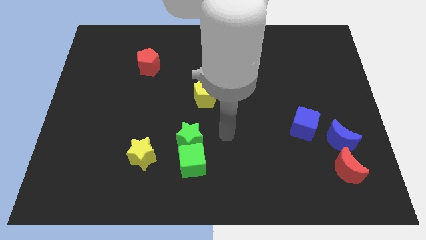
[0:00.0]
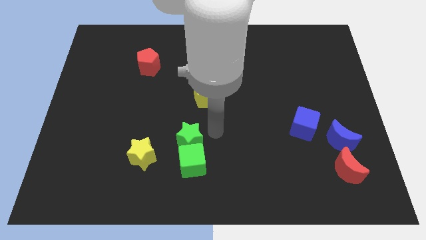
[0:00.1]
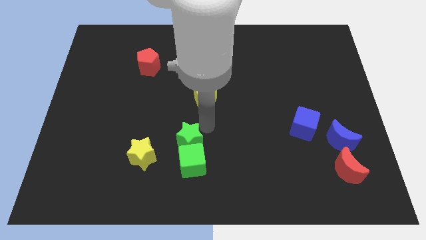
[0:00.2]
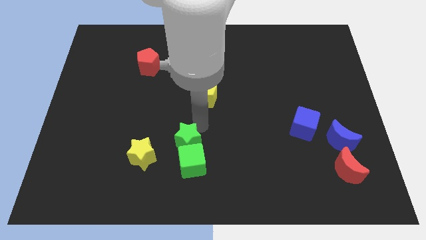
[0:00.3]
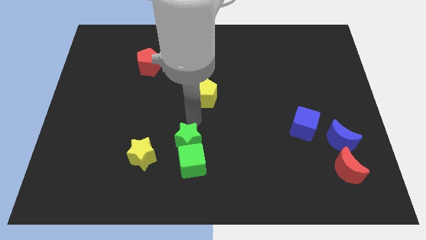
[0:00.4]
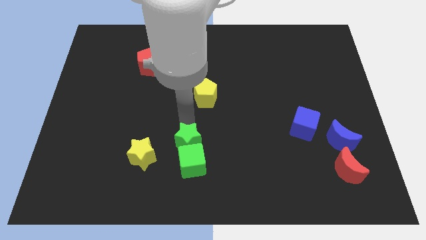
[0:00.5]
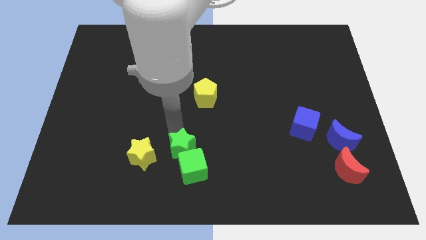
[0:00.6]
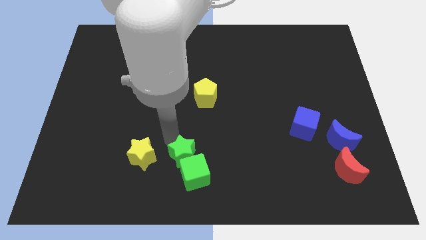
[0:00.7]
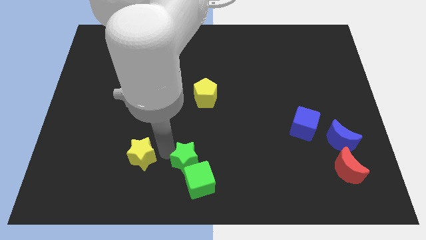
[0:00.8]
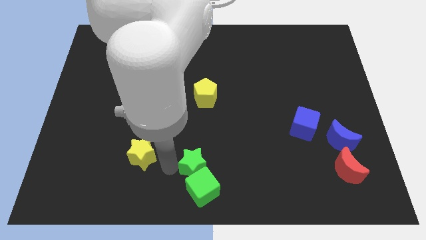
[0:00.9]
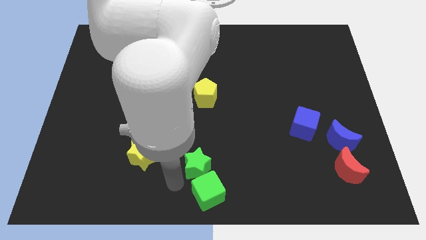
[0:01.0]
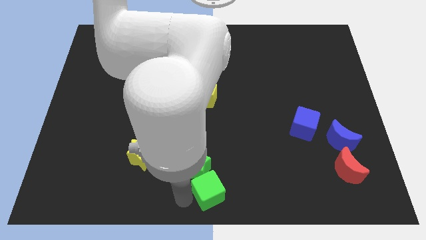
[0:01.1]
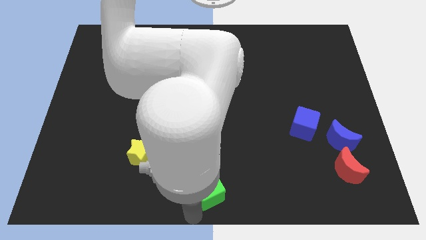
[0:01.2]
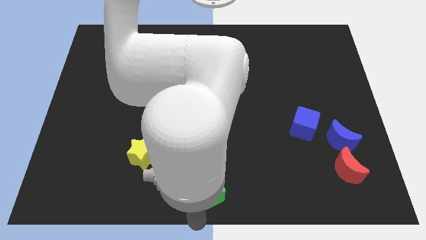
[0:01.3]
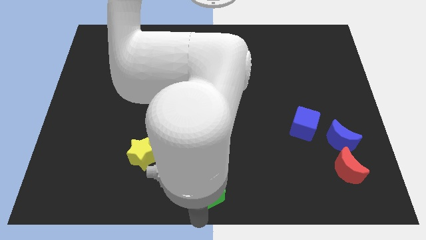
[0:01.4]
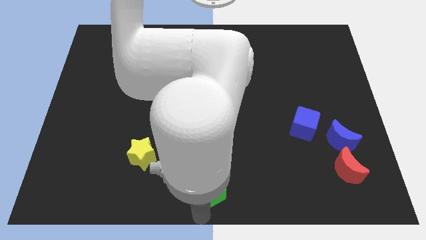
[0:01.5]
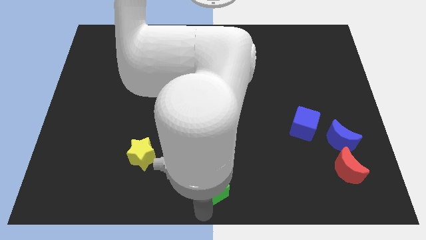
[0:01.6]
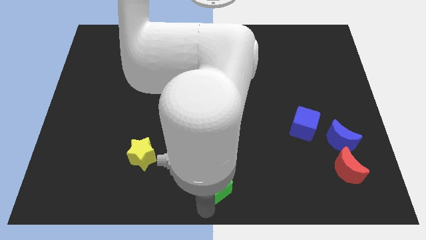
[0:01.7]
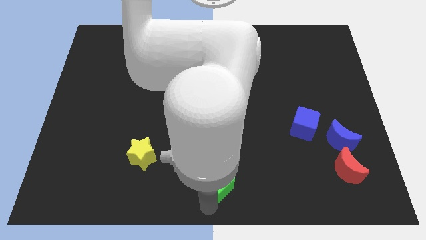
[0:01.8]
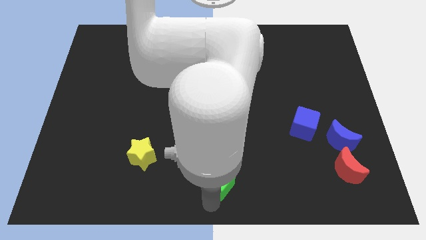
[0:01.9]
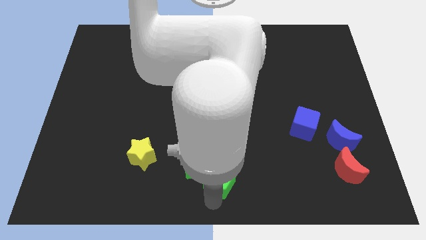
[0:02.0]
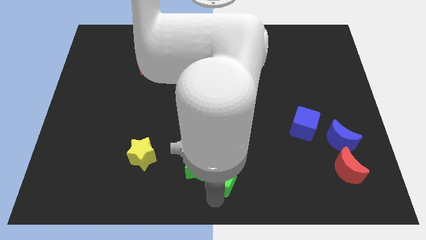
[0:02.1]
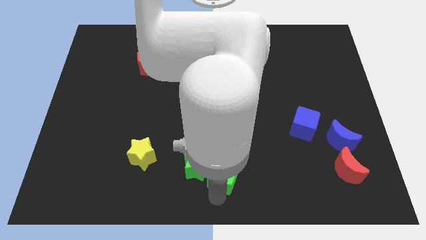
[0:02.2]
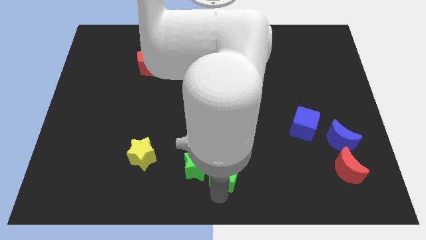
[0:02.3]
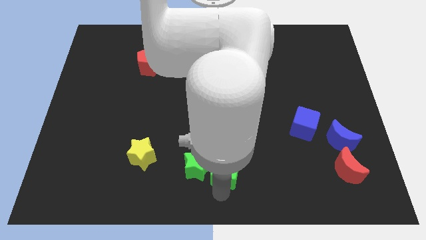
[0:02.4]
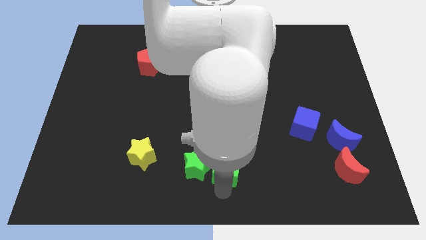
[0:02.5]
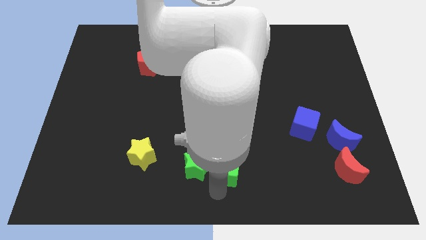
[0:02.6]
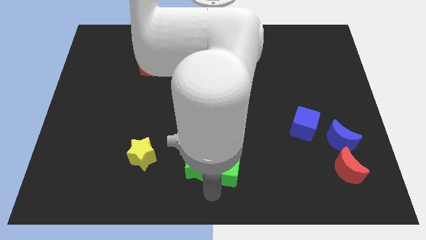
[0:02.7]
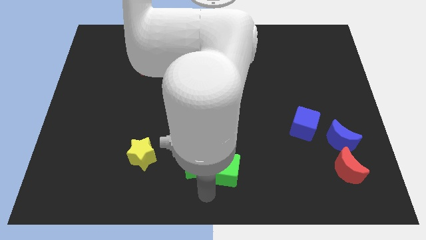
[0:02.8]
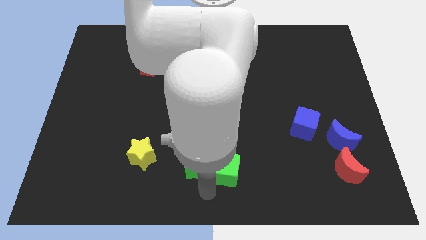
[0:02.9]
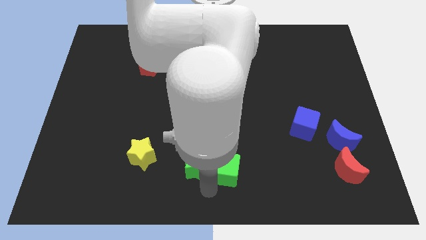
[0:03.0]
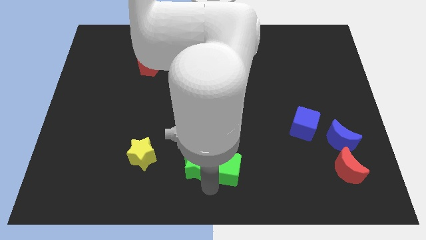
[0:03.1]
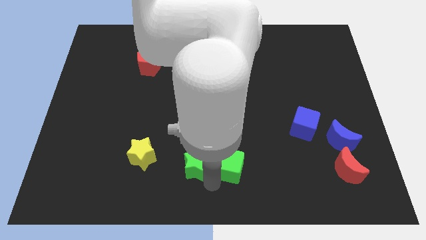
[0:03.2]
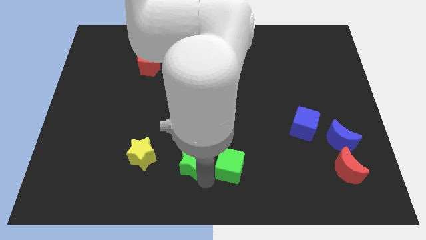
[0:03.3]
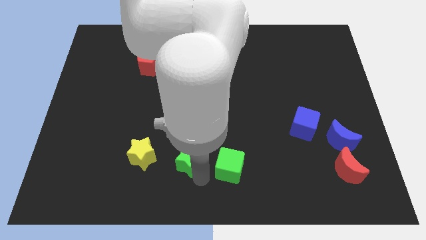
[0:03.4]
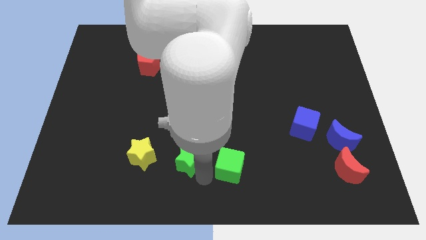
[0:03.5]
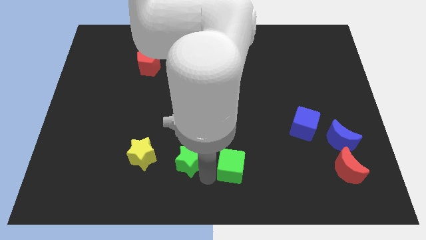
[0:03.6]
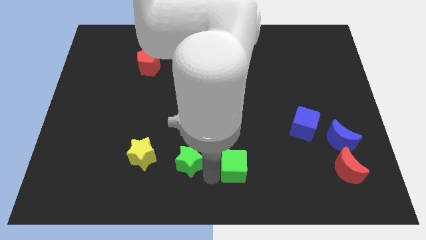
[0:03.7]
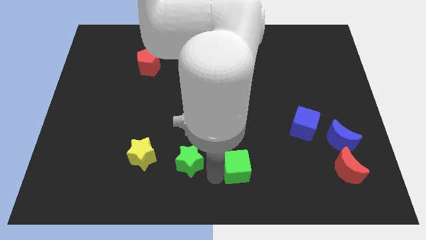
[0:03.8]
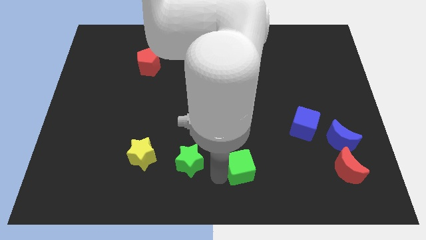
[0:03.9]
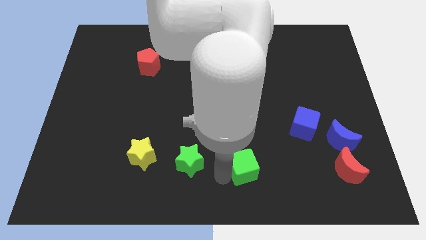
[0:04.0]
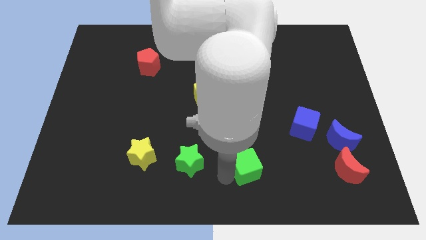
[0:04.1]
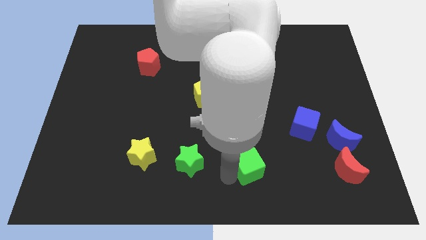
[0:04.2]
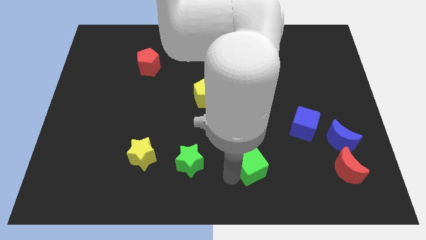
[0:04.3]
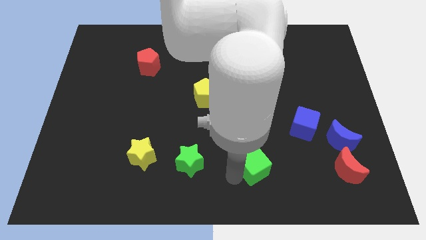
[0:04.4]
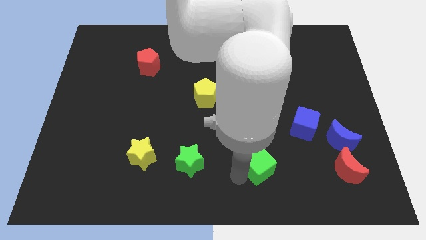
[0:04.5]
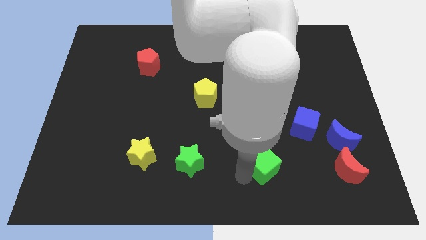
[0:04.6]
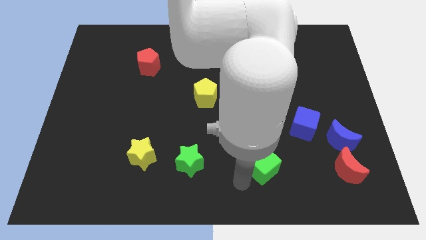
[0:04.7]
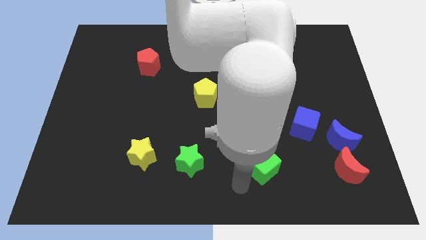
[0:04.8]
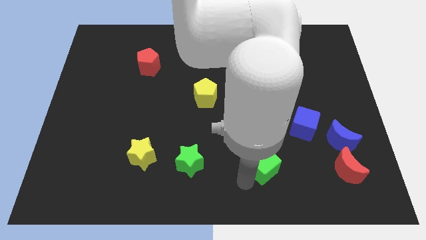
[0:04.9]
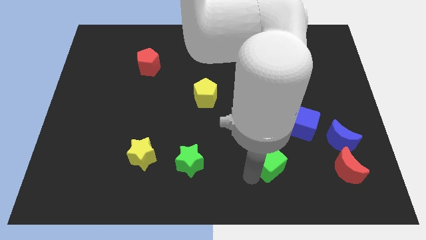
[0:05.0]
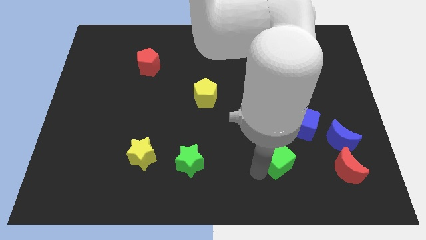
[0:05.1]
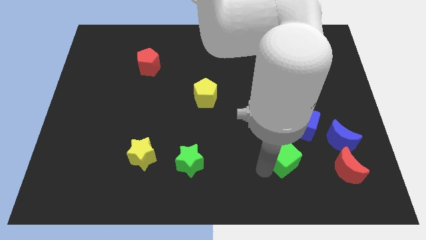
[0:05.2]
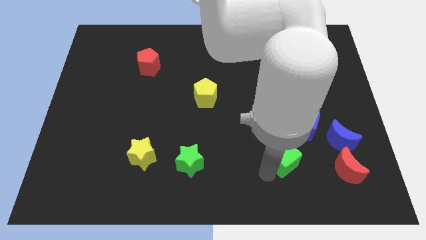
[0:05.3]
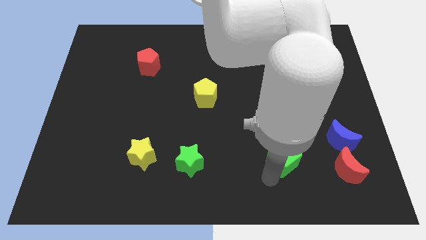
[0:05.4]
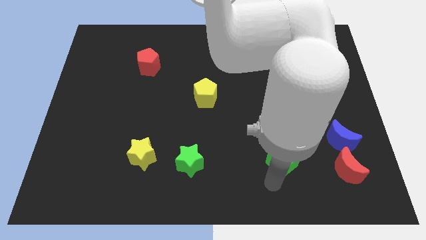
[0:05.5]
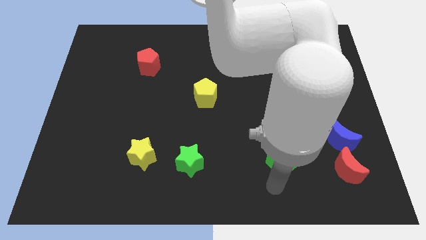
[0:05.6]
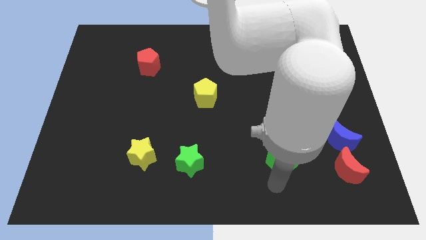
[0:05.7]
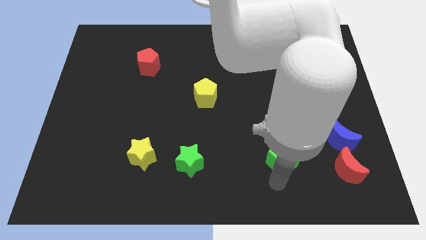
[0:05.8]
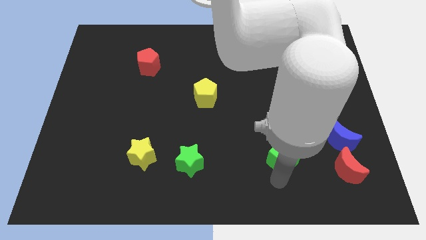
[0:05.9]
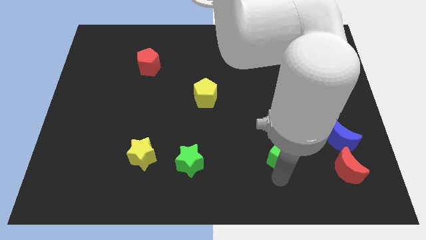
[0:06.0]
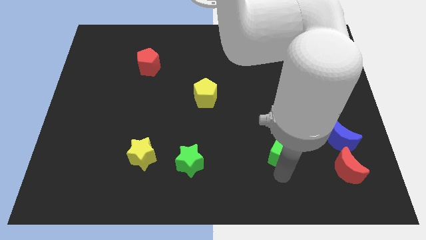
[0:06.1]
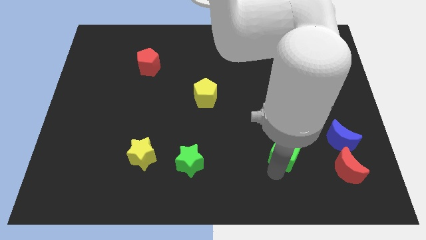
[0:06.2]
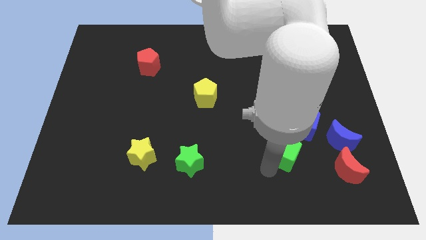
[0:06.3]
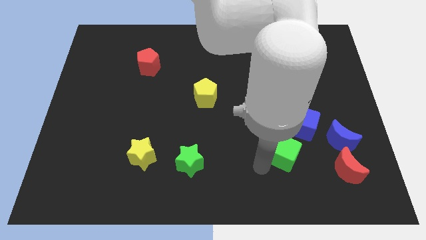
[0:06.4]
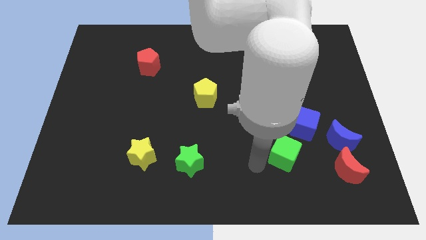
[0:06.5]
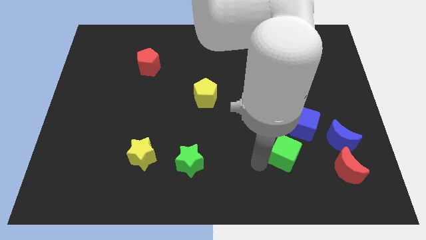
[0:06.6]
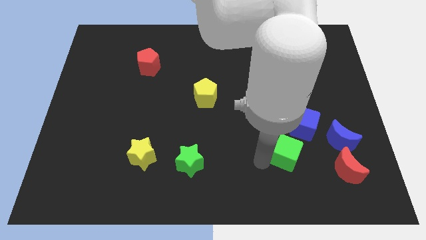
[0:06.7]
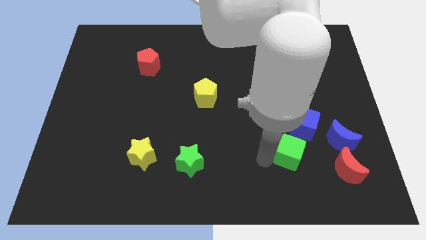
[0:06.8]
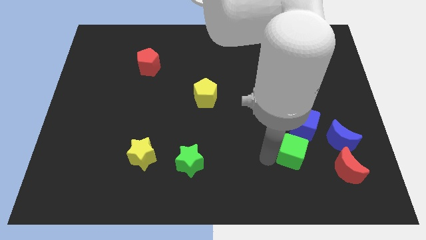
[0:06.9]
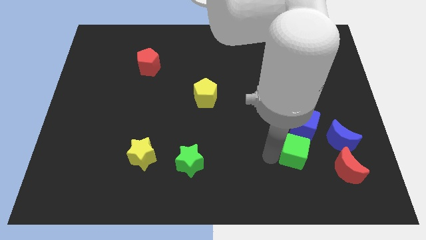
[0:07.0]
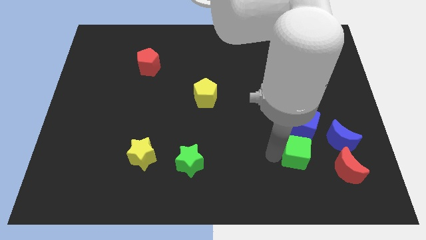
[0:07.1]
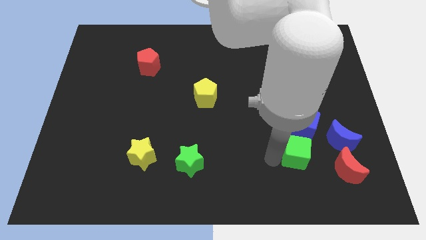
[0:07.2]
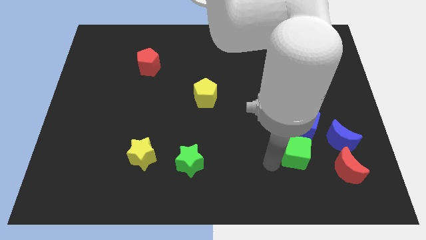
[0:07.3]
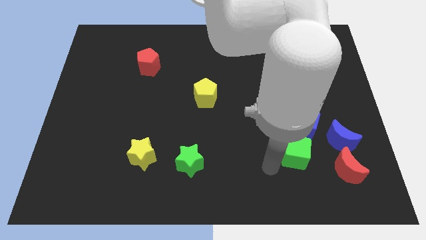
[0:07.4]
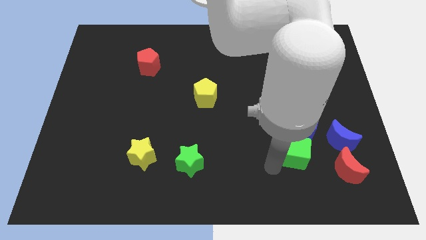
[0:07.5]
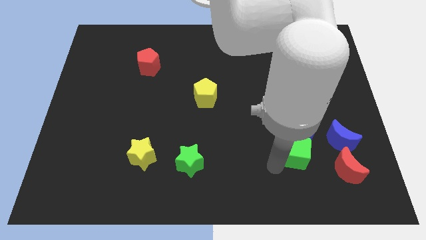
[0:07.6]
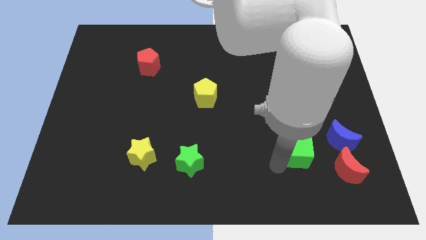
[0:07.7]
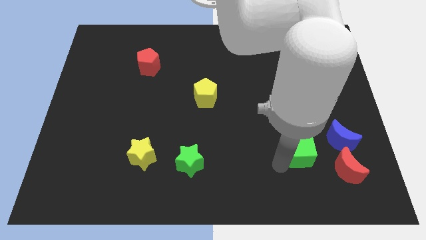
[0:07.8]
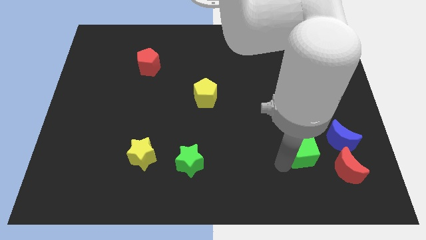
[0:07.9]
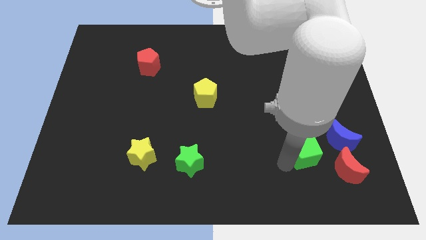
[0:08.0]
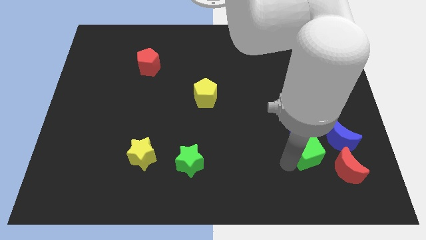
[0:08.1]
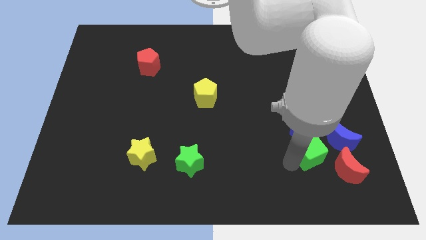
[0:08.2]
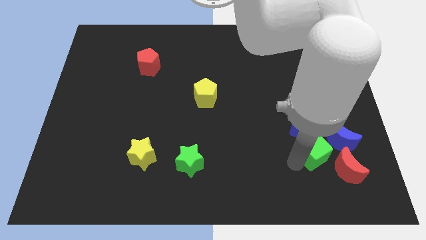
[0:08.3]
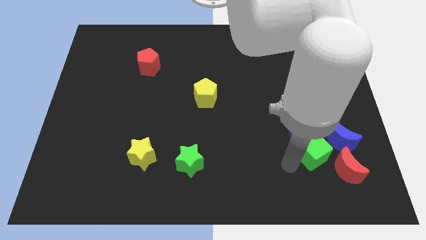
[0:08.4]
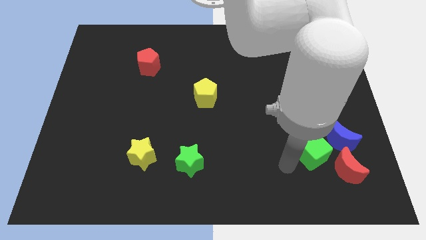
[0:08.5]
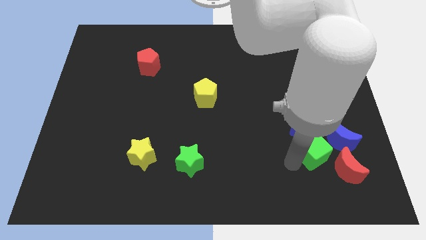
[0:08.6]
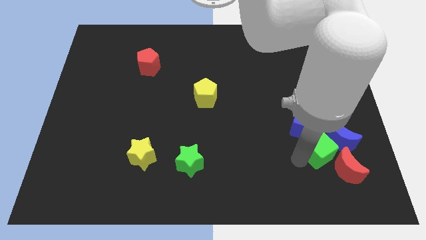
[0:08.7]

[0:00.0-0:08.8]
move the green cube close to the blue moon
